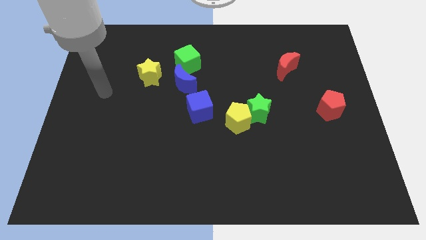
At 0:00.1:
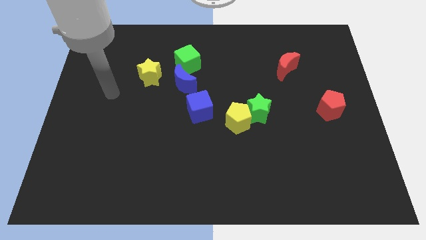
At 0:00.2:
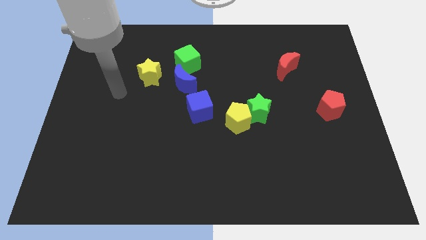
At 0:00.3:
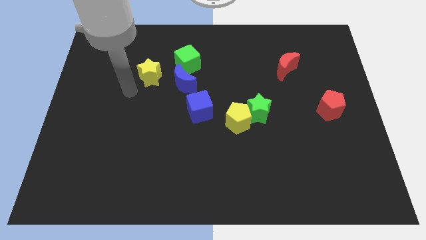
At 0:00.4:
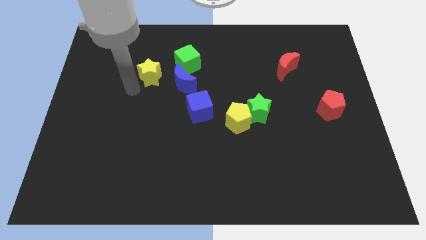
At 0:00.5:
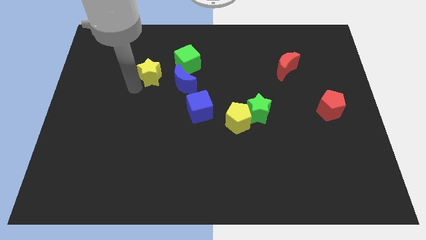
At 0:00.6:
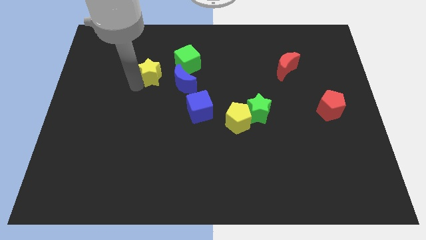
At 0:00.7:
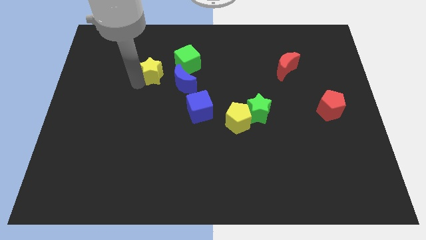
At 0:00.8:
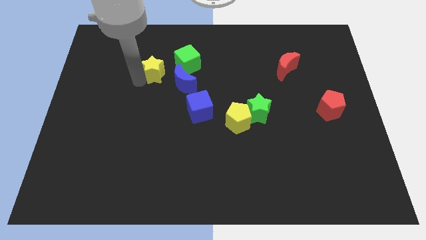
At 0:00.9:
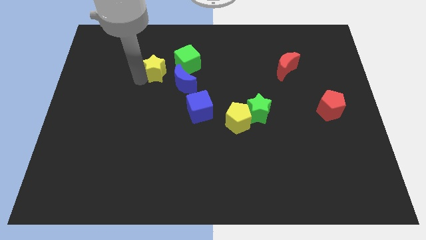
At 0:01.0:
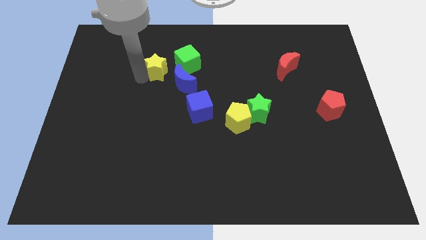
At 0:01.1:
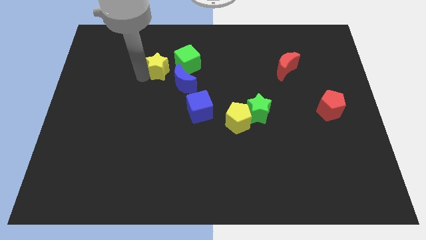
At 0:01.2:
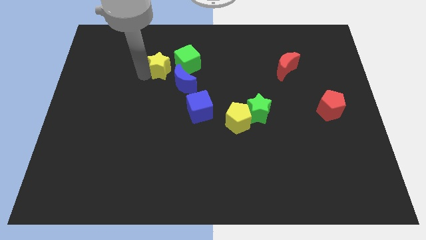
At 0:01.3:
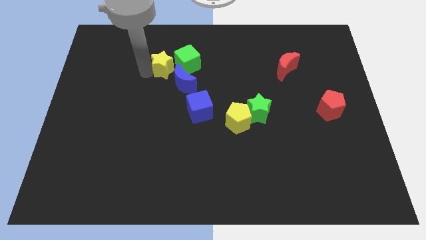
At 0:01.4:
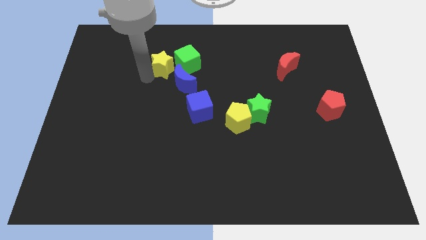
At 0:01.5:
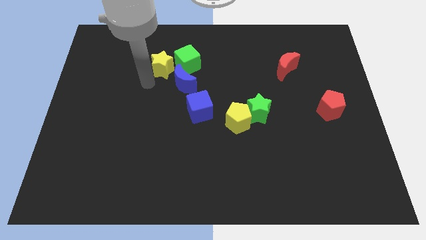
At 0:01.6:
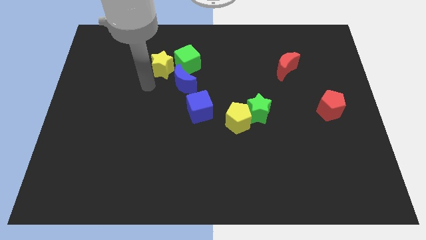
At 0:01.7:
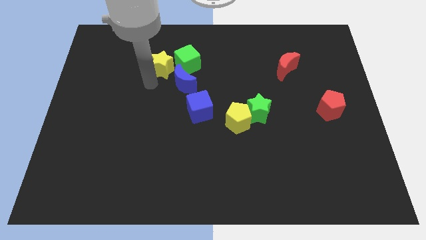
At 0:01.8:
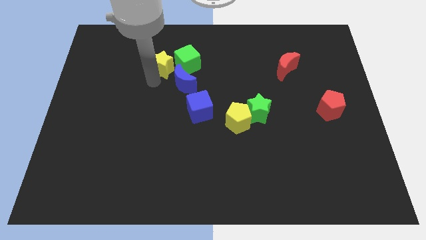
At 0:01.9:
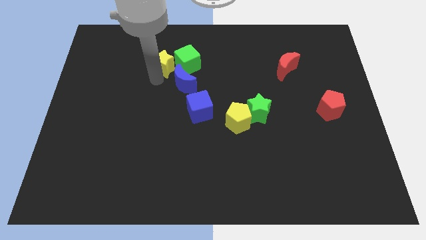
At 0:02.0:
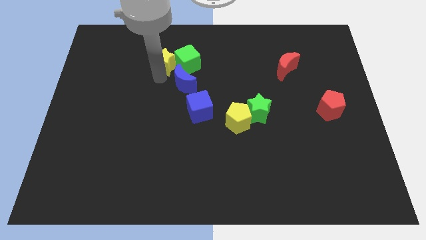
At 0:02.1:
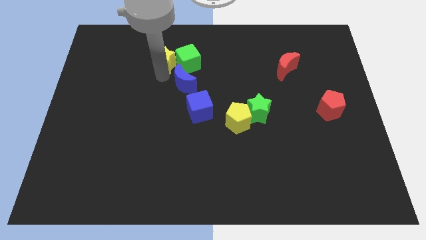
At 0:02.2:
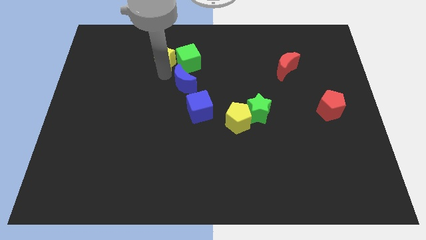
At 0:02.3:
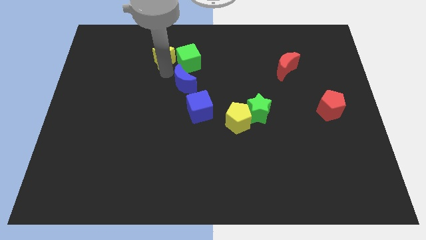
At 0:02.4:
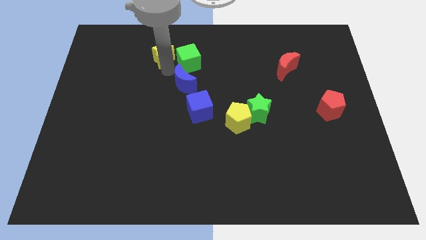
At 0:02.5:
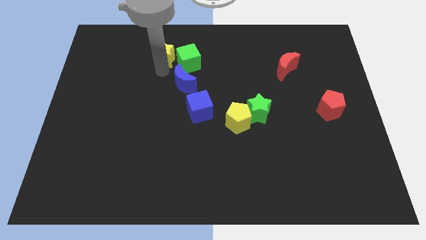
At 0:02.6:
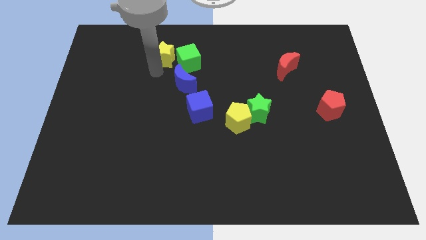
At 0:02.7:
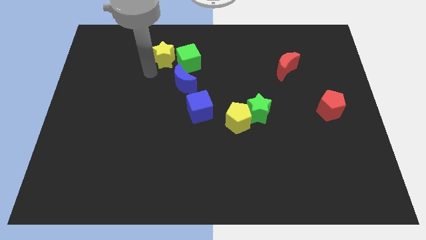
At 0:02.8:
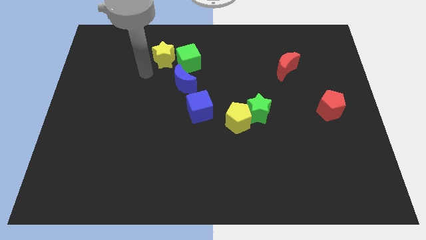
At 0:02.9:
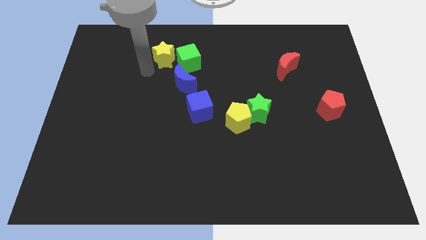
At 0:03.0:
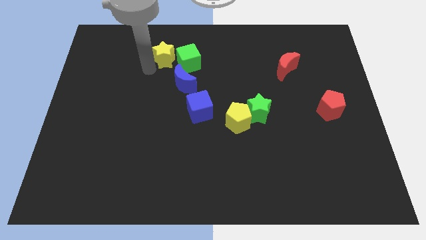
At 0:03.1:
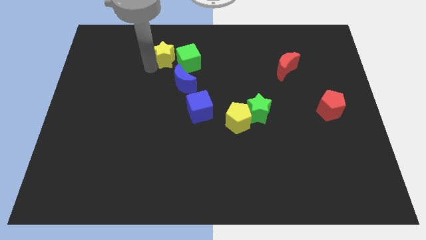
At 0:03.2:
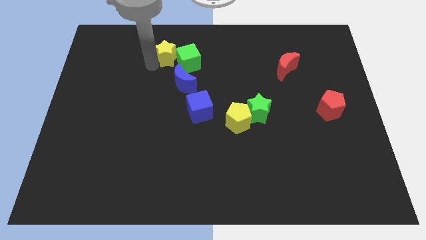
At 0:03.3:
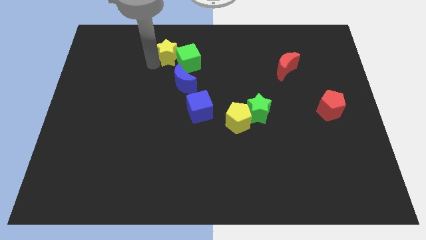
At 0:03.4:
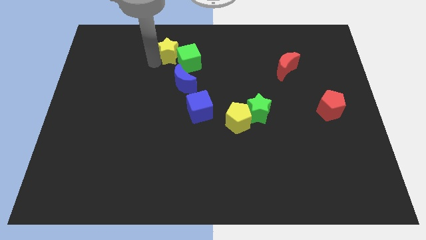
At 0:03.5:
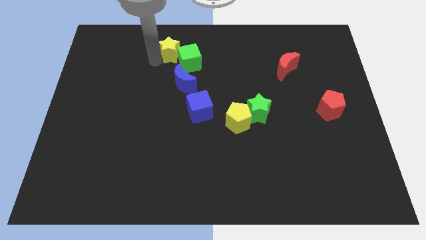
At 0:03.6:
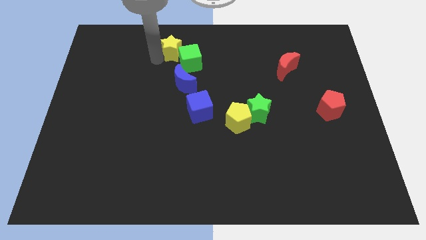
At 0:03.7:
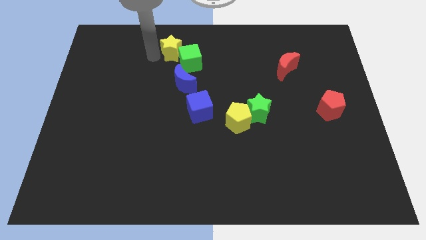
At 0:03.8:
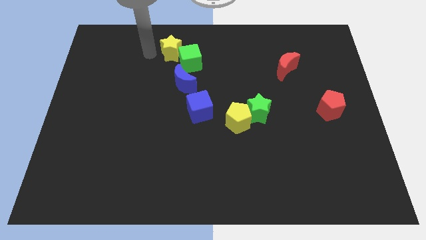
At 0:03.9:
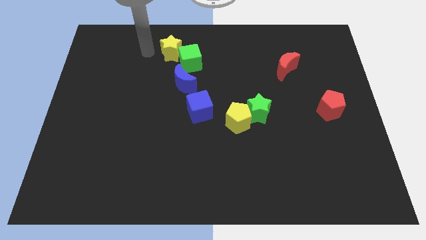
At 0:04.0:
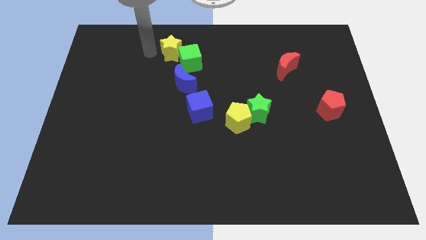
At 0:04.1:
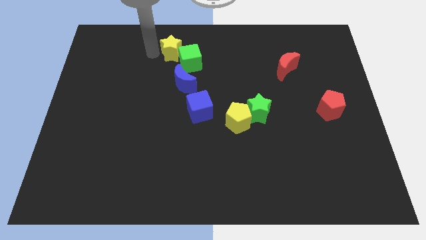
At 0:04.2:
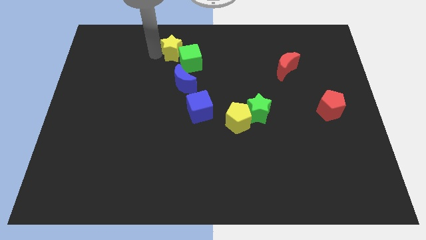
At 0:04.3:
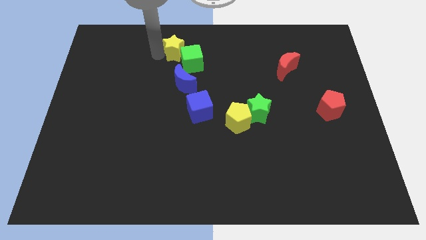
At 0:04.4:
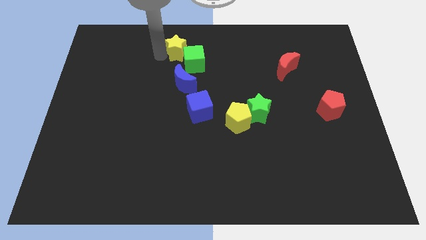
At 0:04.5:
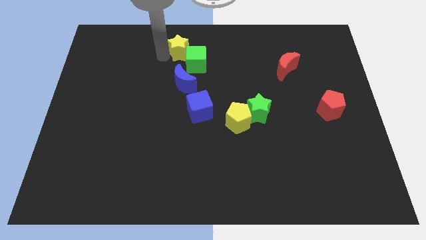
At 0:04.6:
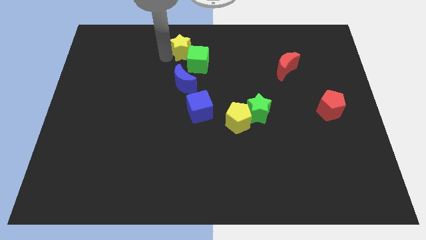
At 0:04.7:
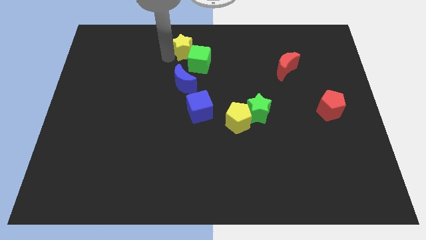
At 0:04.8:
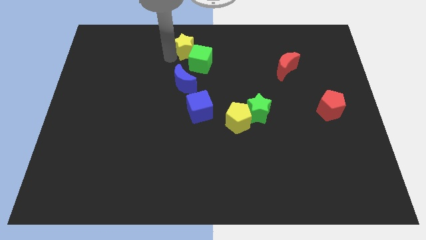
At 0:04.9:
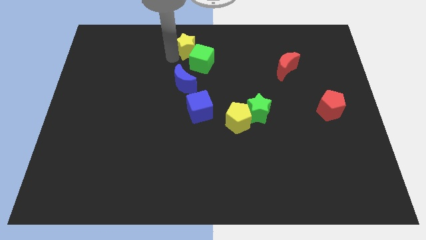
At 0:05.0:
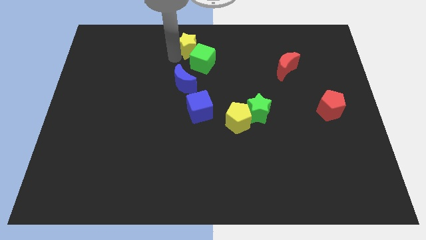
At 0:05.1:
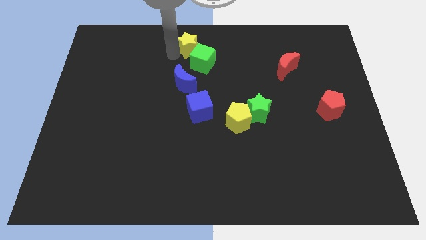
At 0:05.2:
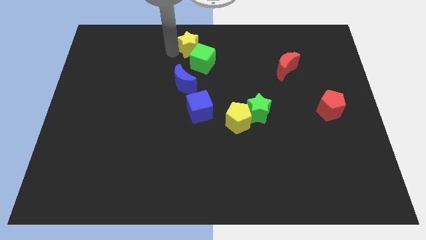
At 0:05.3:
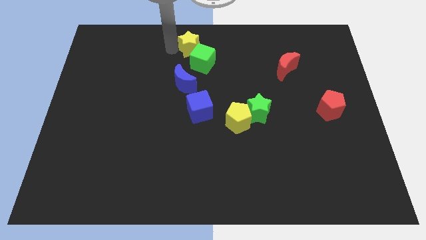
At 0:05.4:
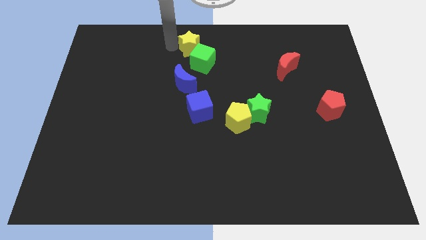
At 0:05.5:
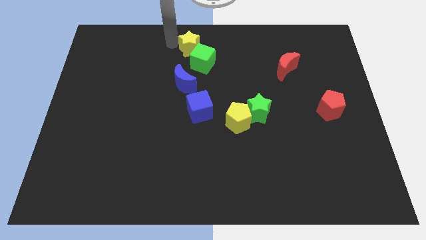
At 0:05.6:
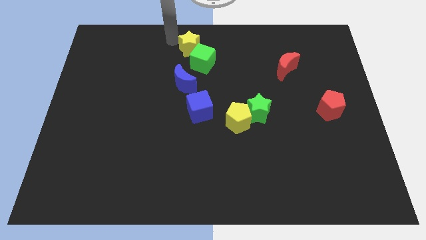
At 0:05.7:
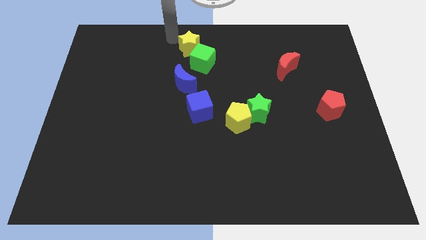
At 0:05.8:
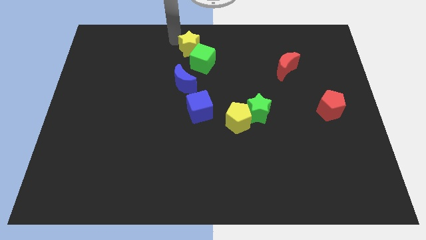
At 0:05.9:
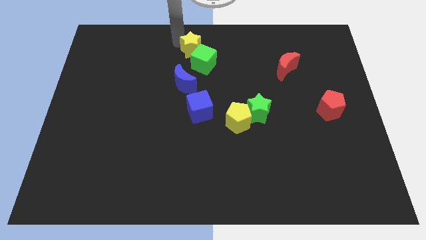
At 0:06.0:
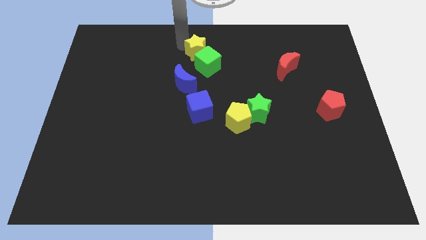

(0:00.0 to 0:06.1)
slightly push the yellow star right

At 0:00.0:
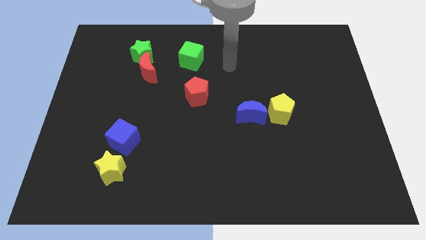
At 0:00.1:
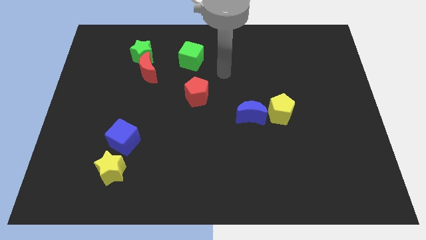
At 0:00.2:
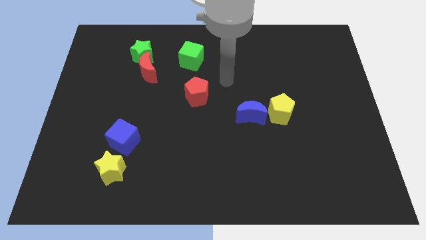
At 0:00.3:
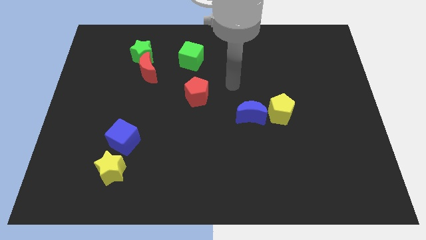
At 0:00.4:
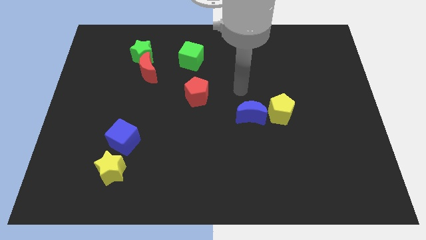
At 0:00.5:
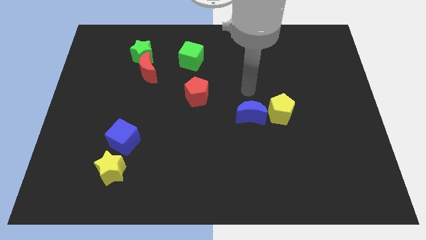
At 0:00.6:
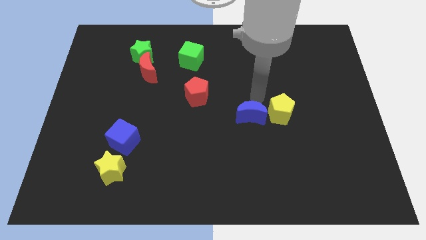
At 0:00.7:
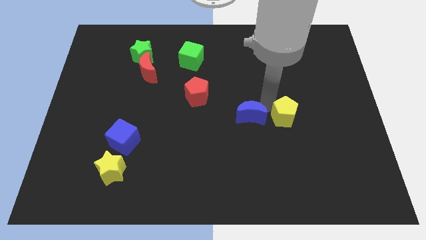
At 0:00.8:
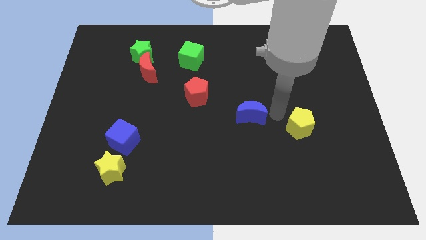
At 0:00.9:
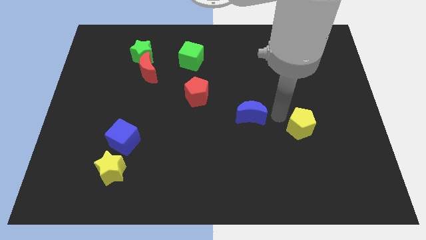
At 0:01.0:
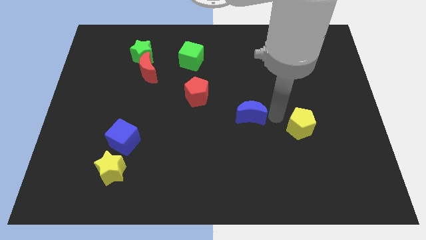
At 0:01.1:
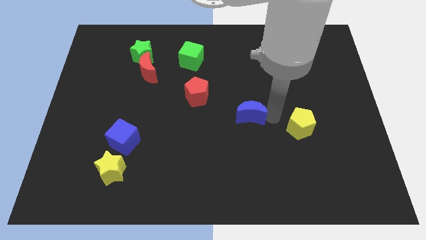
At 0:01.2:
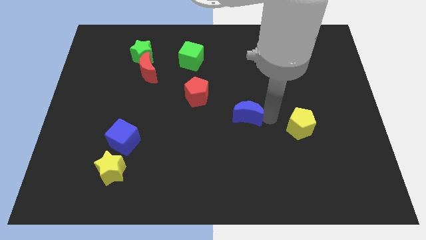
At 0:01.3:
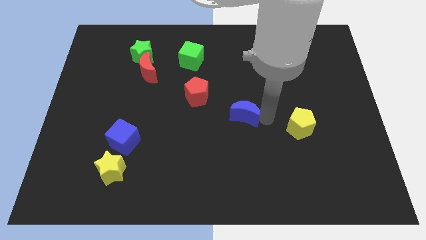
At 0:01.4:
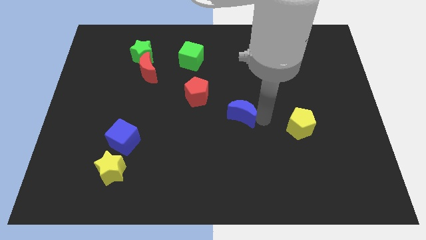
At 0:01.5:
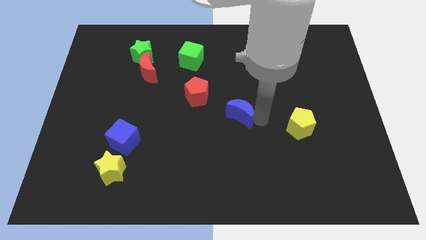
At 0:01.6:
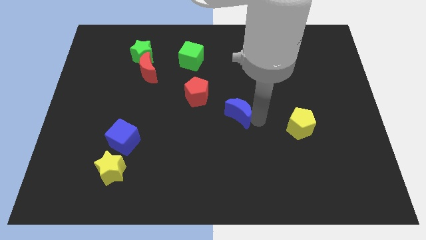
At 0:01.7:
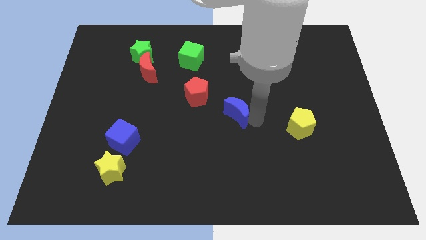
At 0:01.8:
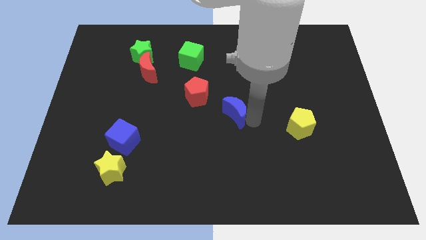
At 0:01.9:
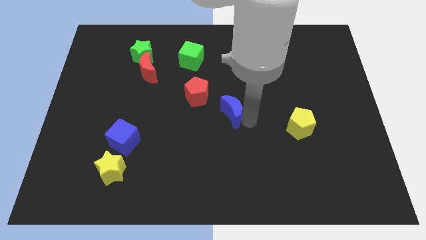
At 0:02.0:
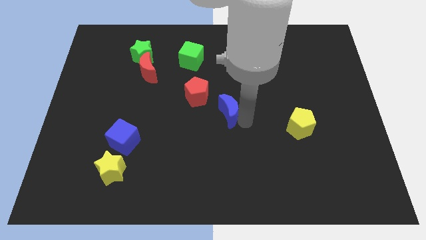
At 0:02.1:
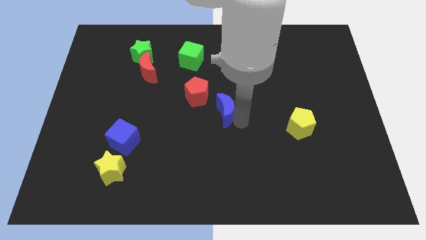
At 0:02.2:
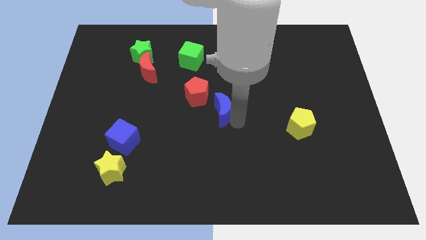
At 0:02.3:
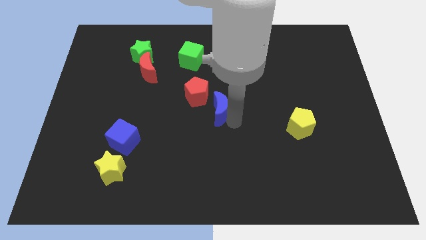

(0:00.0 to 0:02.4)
slide the blue moon somewhat to the left
